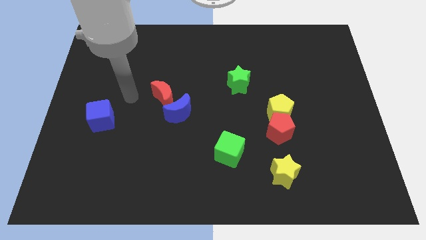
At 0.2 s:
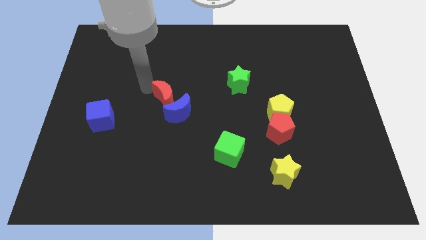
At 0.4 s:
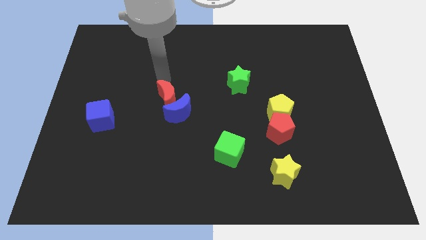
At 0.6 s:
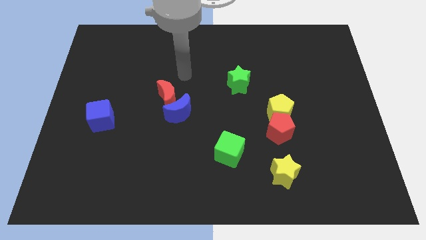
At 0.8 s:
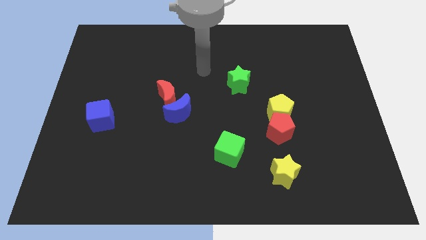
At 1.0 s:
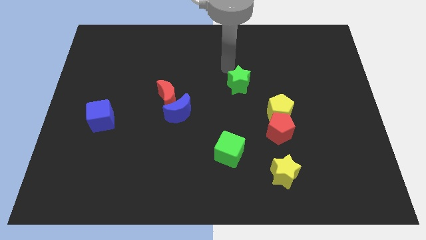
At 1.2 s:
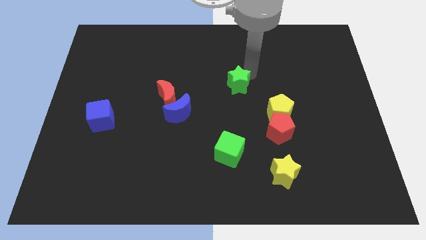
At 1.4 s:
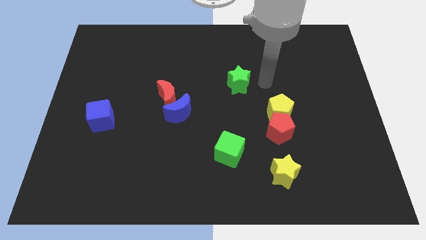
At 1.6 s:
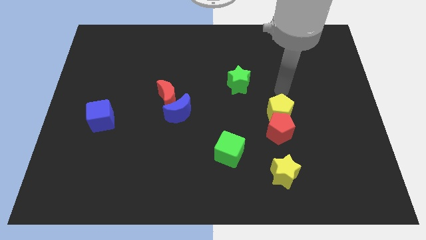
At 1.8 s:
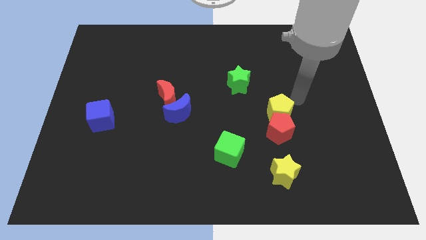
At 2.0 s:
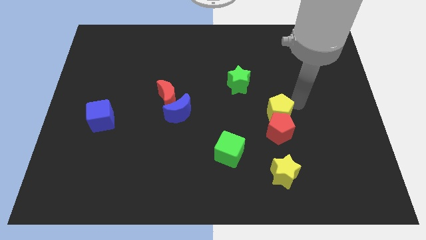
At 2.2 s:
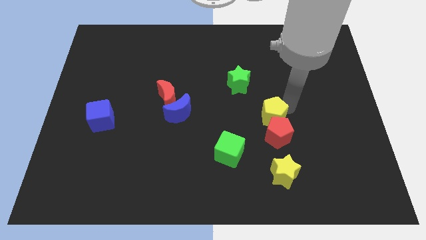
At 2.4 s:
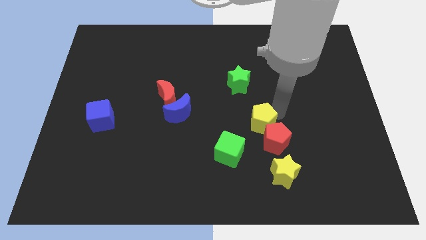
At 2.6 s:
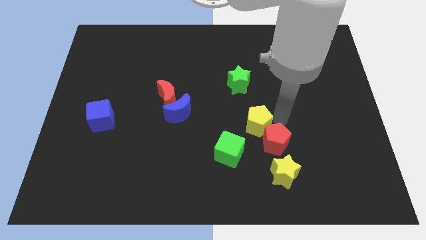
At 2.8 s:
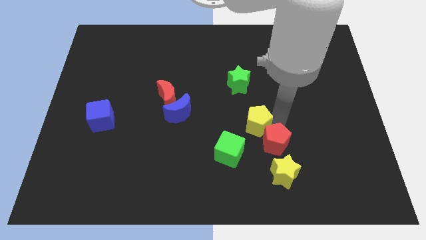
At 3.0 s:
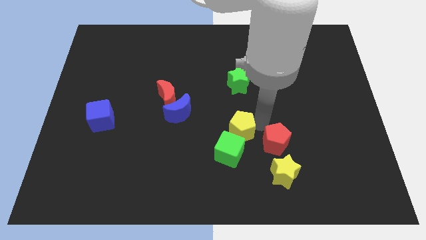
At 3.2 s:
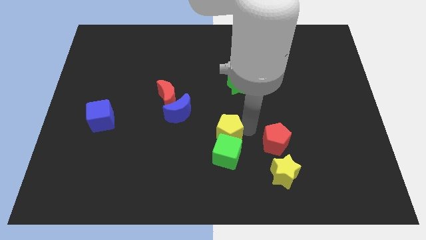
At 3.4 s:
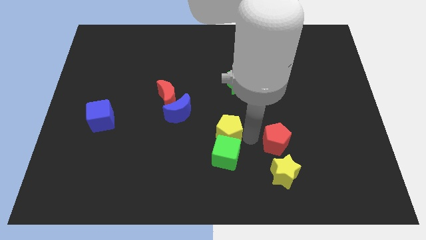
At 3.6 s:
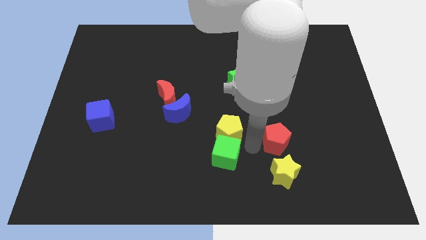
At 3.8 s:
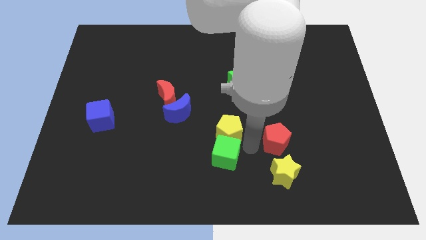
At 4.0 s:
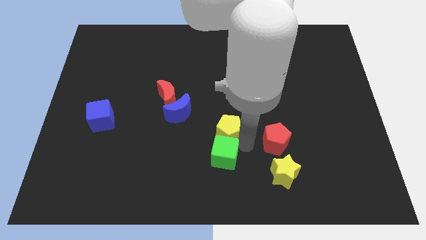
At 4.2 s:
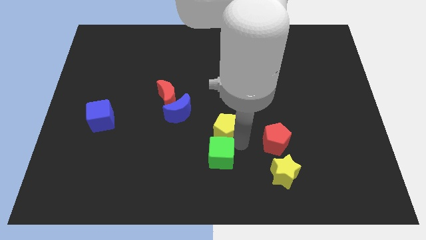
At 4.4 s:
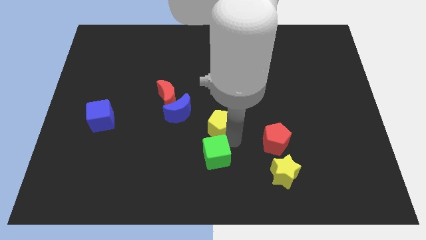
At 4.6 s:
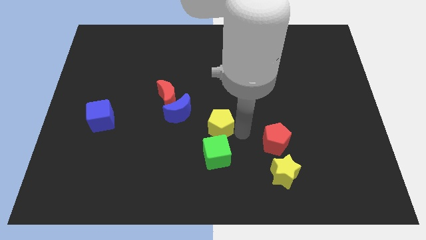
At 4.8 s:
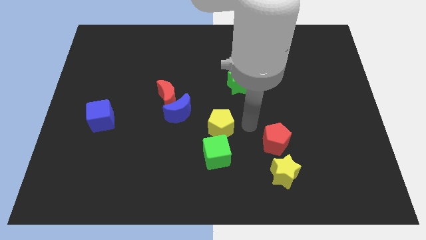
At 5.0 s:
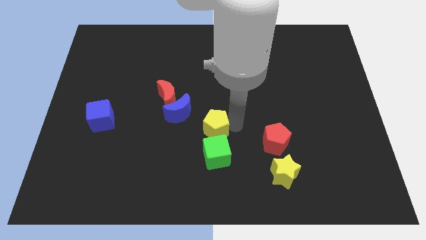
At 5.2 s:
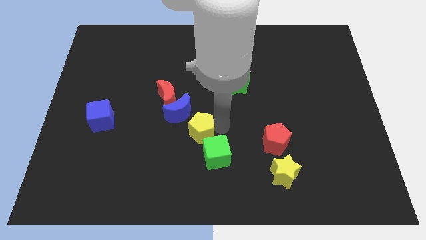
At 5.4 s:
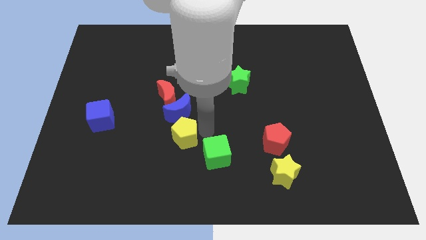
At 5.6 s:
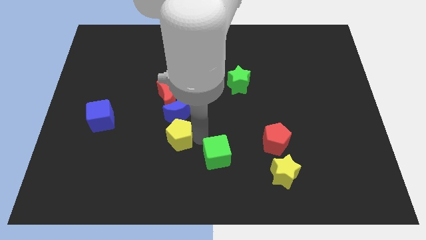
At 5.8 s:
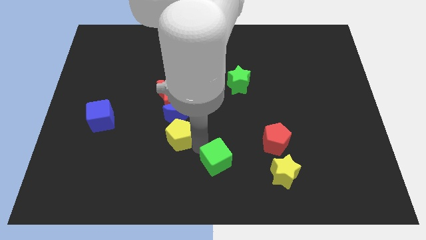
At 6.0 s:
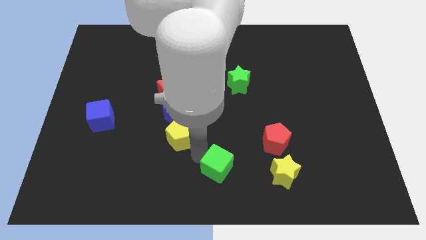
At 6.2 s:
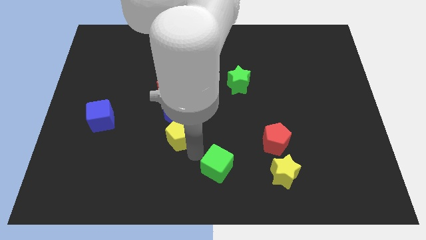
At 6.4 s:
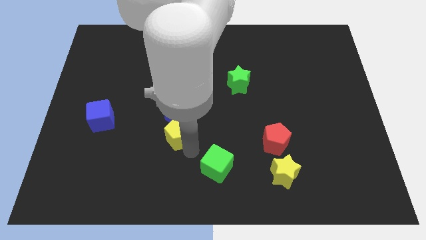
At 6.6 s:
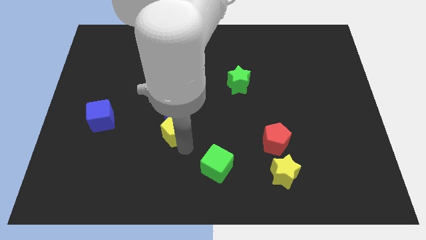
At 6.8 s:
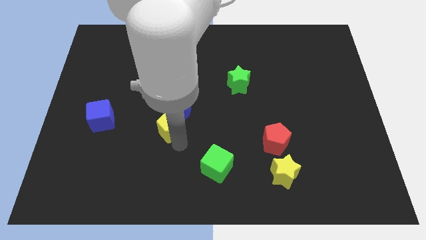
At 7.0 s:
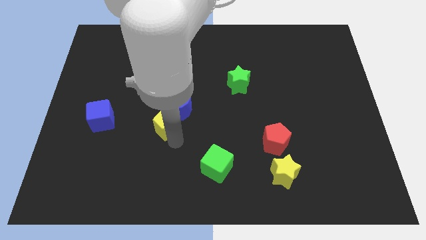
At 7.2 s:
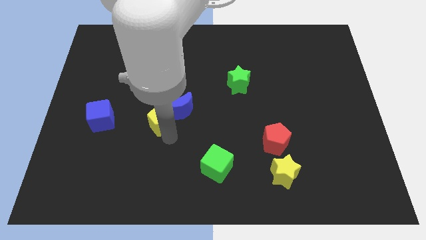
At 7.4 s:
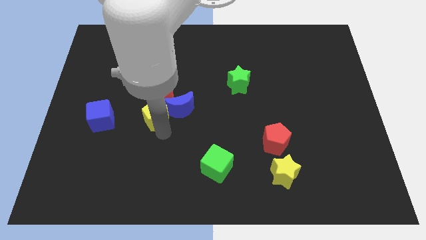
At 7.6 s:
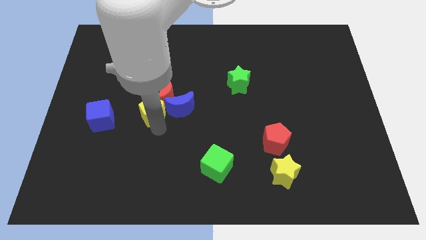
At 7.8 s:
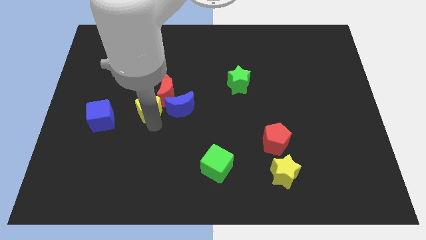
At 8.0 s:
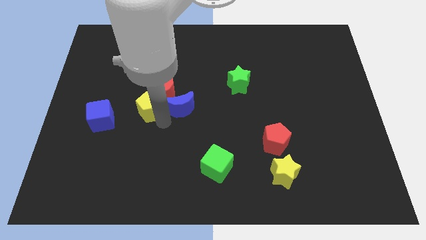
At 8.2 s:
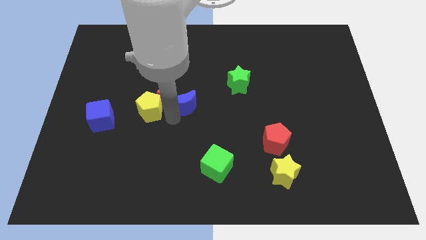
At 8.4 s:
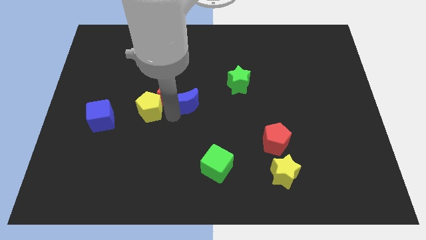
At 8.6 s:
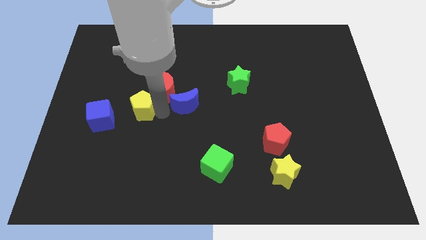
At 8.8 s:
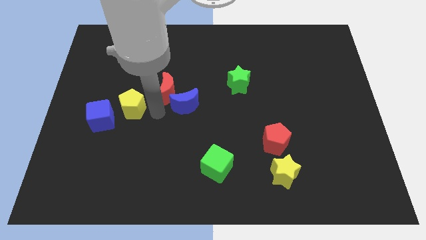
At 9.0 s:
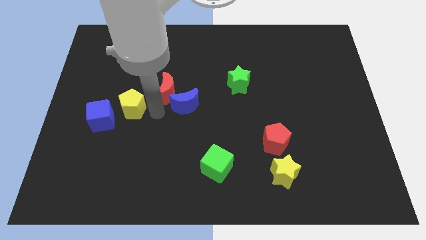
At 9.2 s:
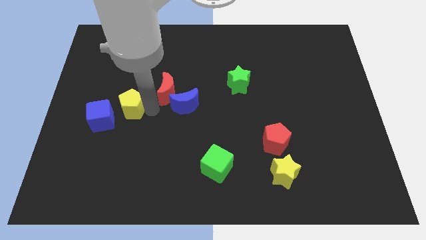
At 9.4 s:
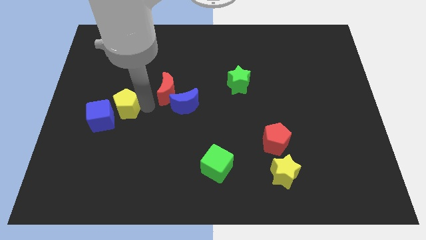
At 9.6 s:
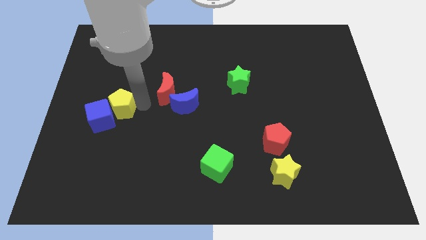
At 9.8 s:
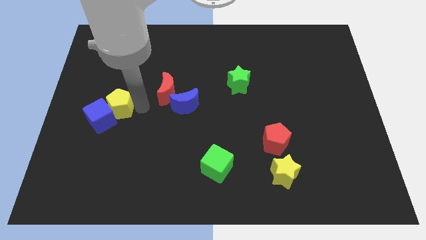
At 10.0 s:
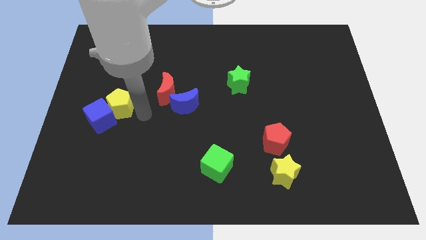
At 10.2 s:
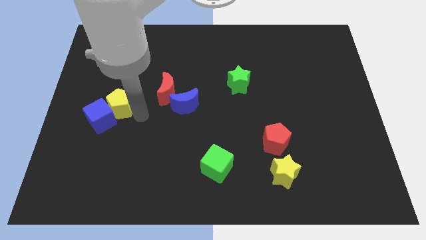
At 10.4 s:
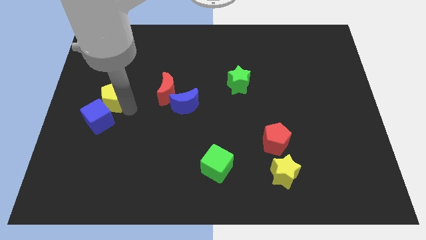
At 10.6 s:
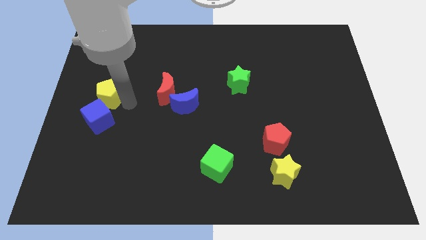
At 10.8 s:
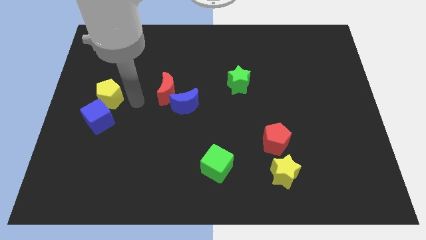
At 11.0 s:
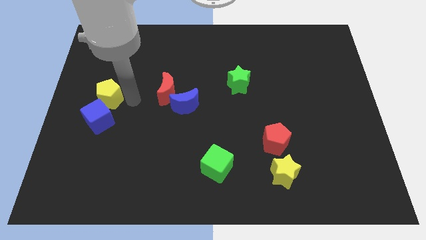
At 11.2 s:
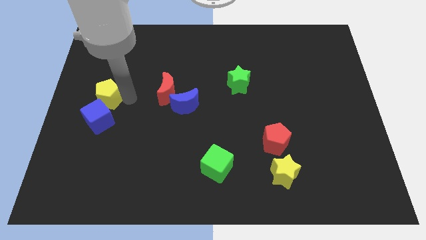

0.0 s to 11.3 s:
push the yellow pentagon to the left side

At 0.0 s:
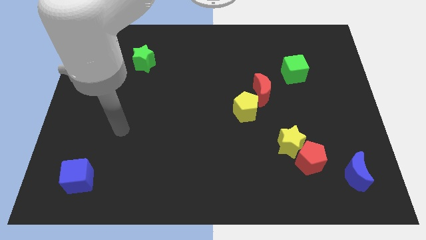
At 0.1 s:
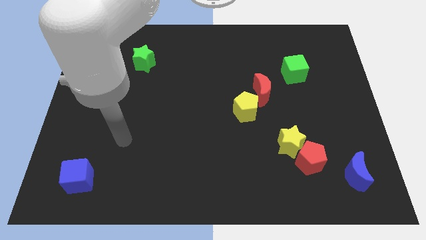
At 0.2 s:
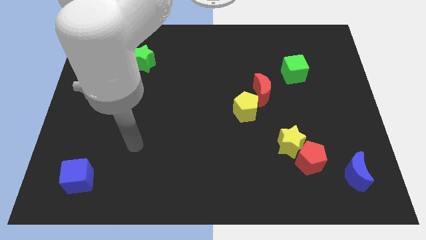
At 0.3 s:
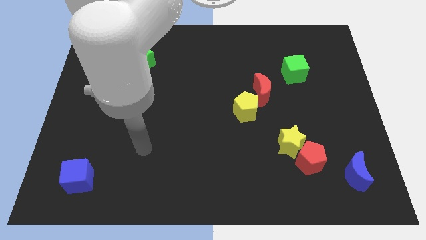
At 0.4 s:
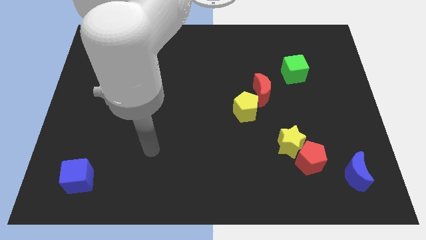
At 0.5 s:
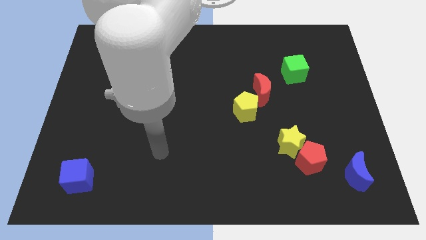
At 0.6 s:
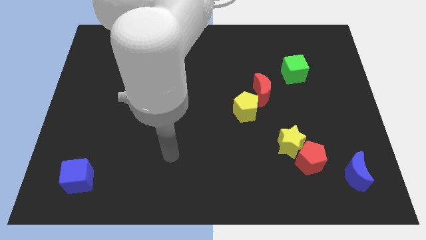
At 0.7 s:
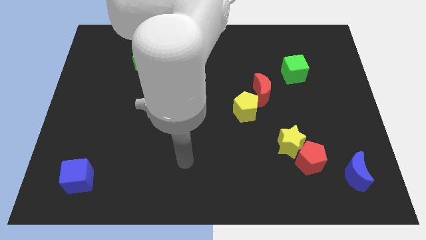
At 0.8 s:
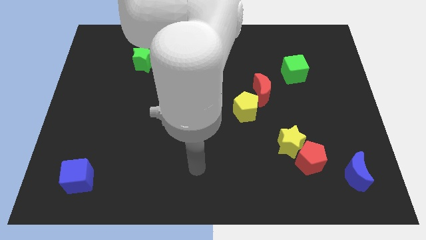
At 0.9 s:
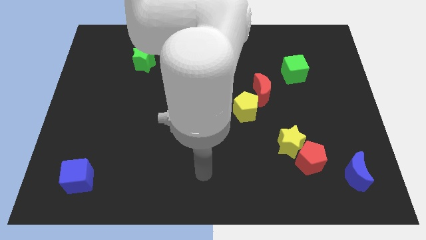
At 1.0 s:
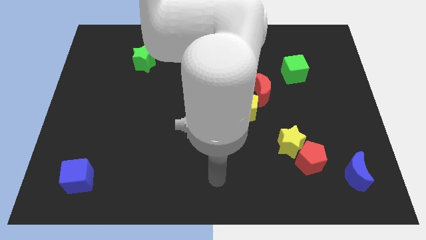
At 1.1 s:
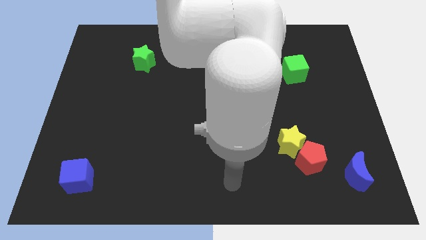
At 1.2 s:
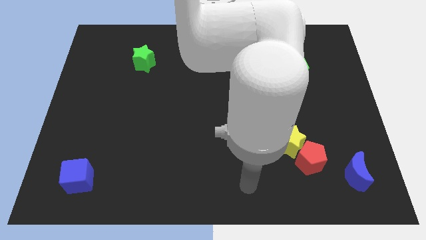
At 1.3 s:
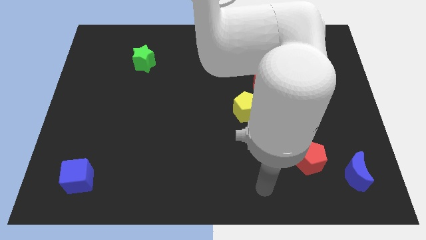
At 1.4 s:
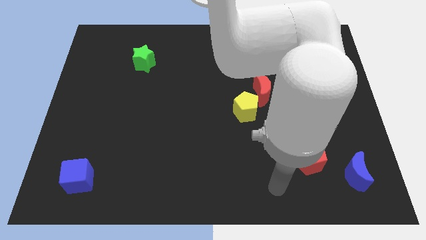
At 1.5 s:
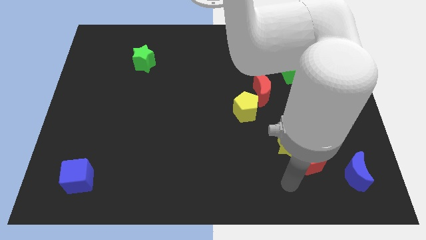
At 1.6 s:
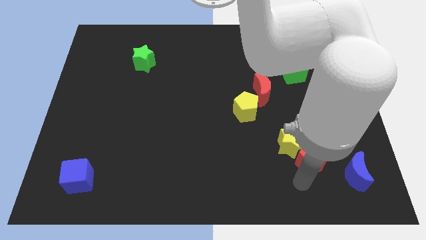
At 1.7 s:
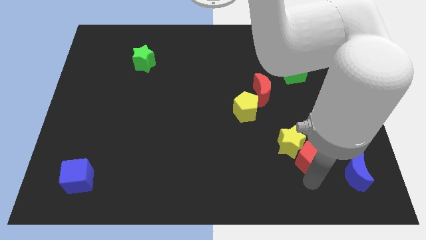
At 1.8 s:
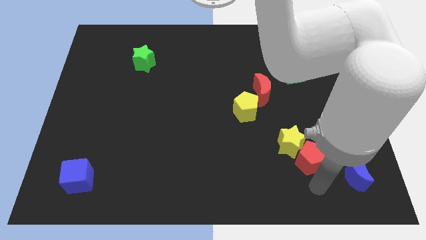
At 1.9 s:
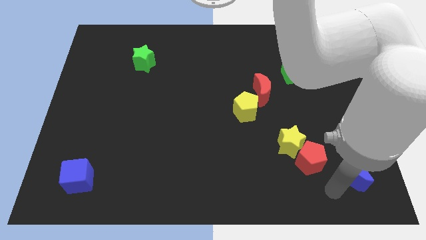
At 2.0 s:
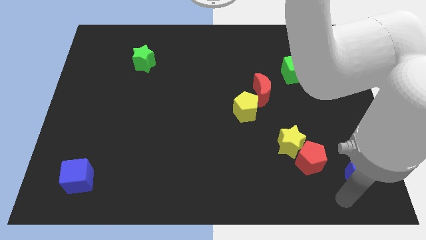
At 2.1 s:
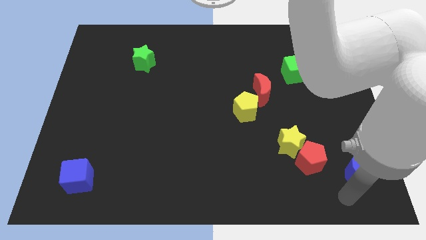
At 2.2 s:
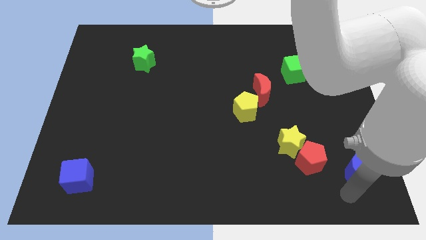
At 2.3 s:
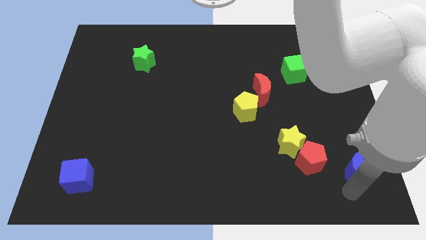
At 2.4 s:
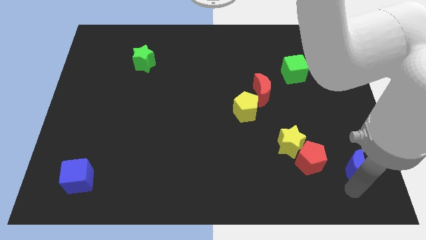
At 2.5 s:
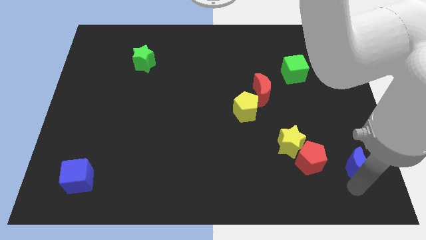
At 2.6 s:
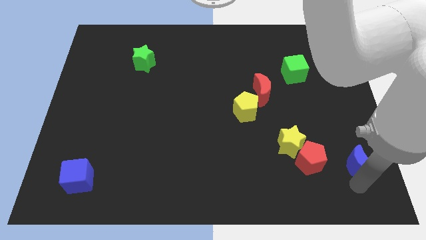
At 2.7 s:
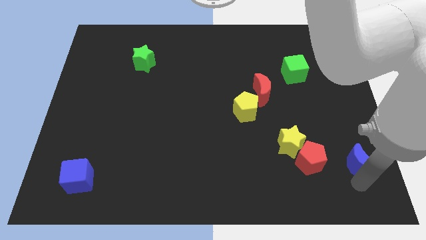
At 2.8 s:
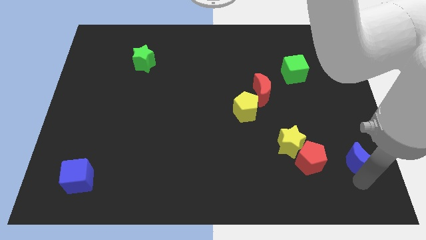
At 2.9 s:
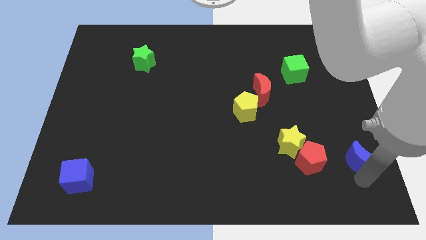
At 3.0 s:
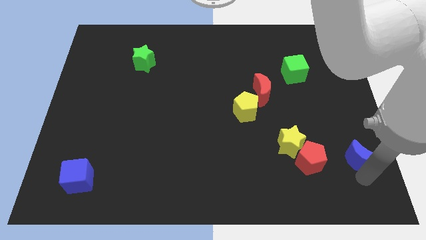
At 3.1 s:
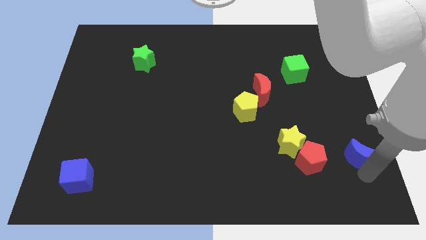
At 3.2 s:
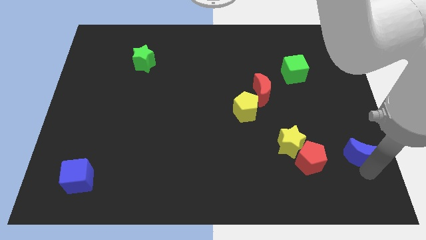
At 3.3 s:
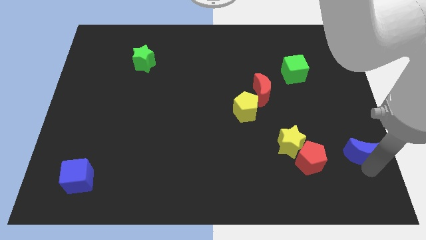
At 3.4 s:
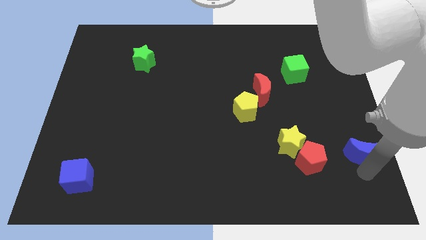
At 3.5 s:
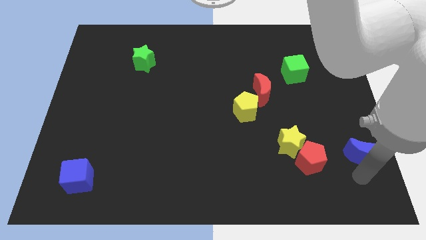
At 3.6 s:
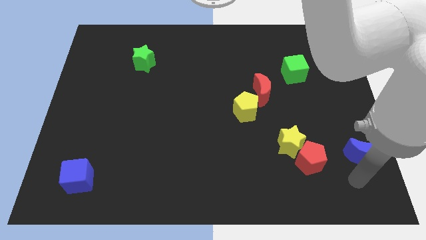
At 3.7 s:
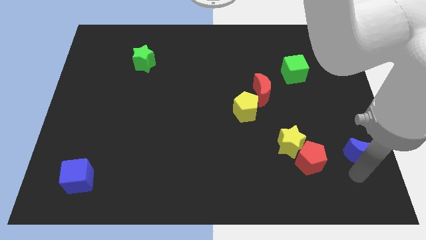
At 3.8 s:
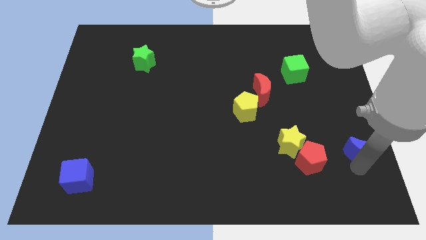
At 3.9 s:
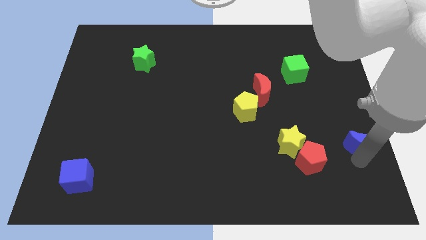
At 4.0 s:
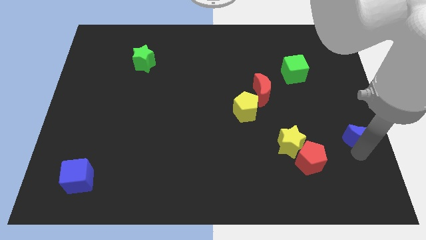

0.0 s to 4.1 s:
push the blue moon to the right side of the board
